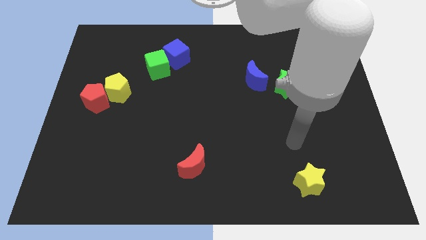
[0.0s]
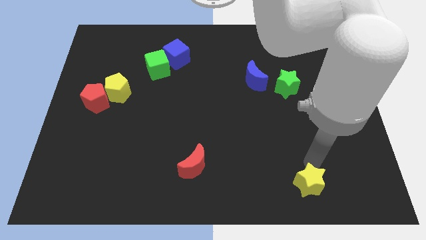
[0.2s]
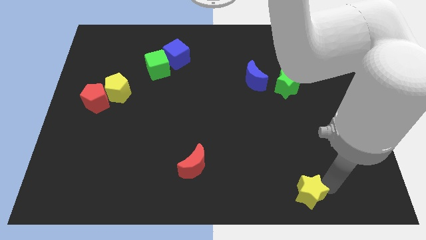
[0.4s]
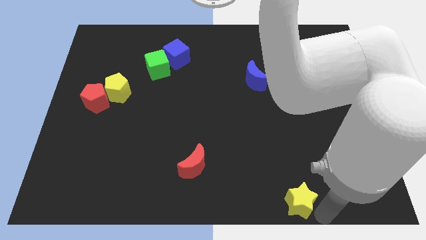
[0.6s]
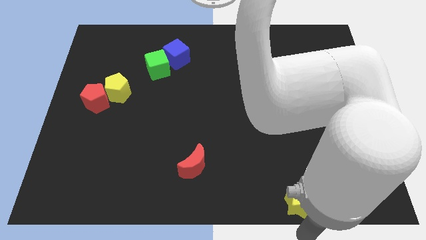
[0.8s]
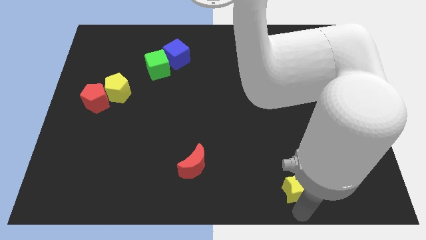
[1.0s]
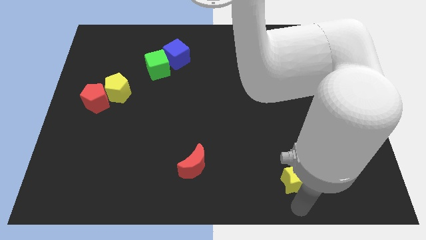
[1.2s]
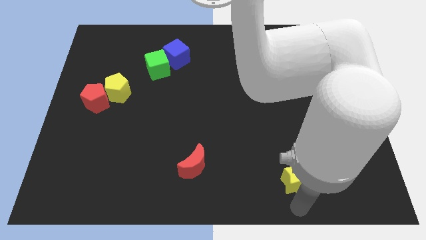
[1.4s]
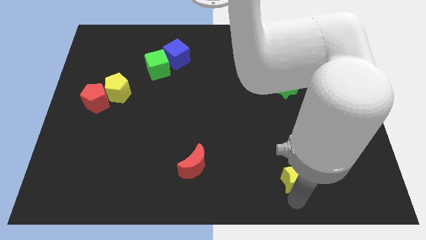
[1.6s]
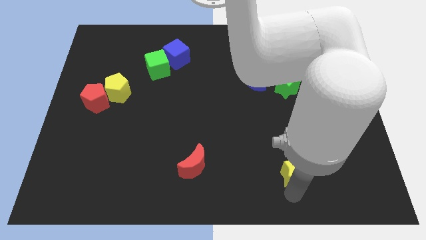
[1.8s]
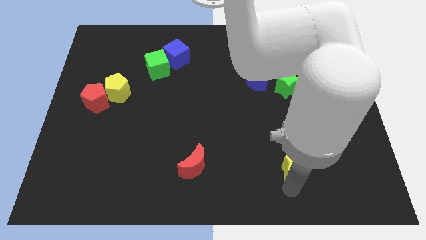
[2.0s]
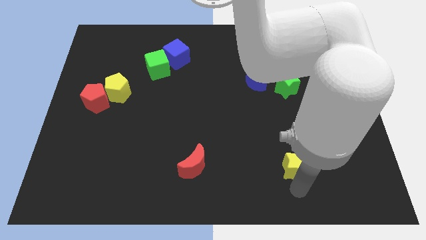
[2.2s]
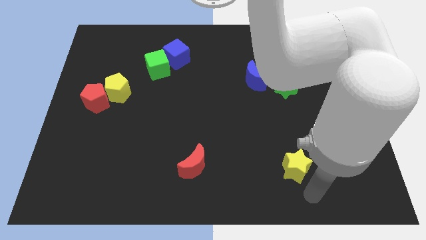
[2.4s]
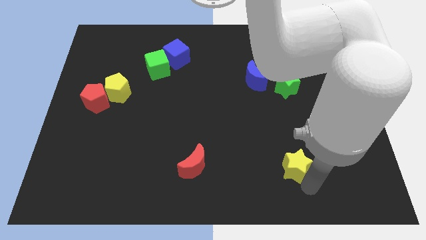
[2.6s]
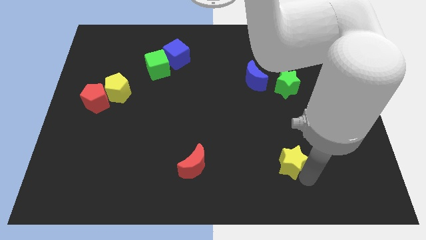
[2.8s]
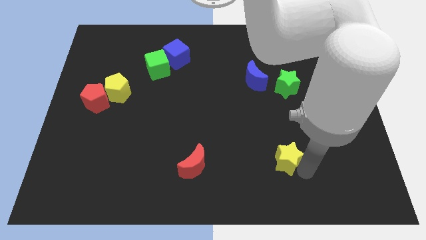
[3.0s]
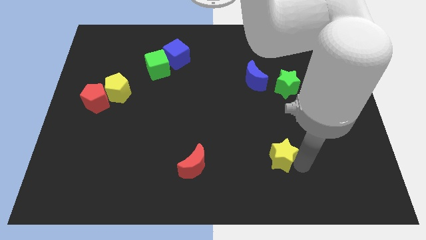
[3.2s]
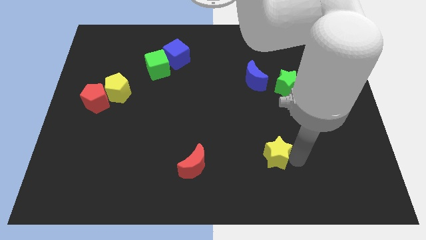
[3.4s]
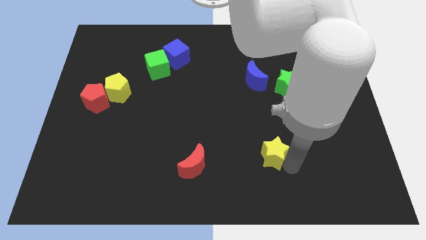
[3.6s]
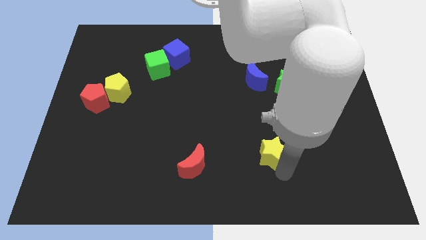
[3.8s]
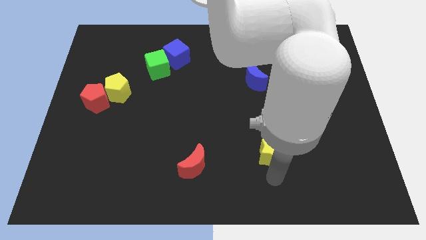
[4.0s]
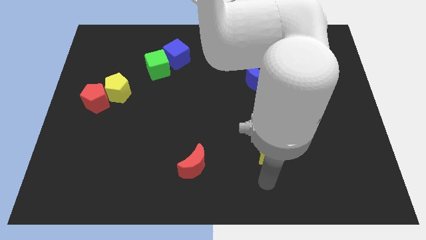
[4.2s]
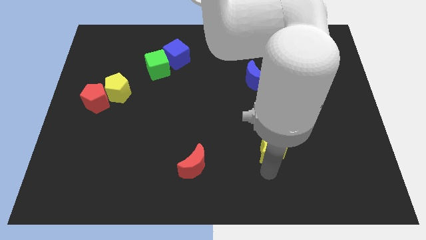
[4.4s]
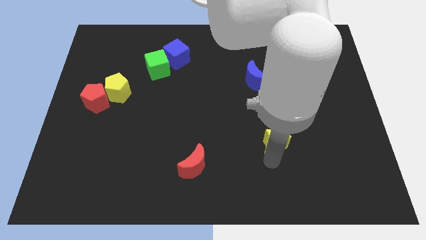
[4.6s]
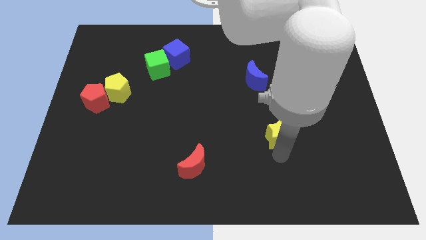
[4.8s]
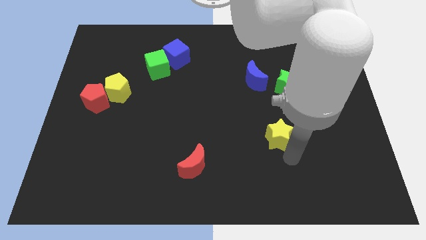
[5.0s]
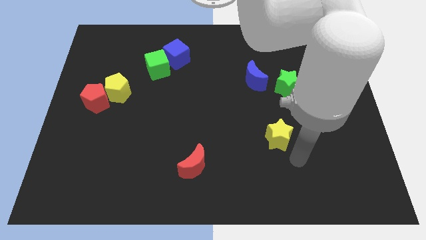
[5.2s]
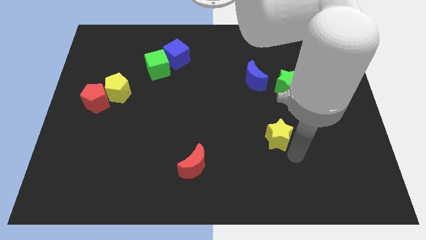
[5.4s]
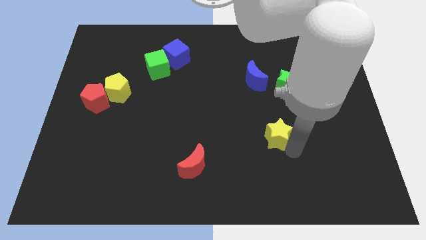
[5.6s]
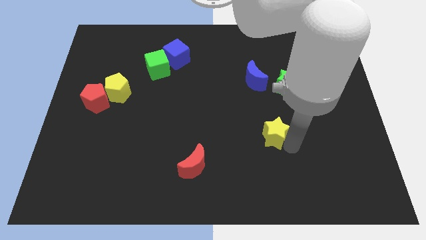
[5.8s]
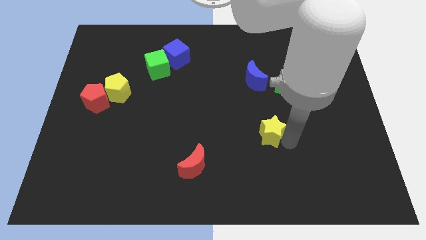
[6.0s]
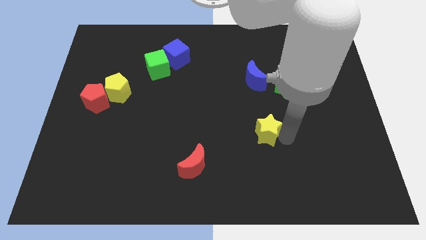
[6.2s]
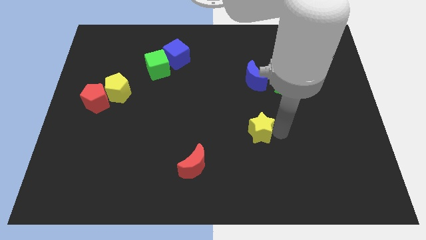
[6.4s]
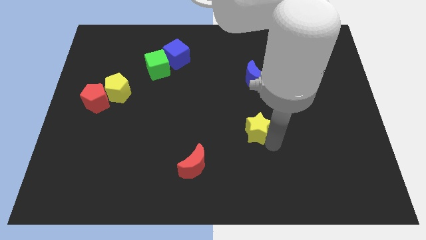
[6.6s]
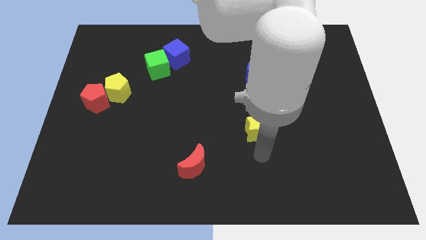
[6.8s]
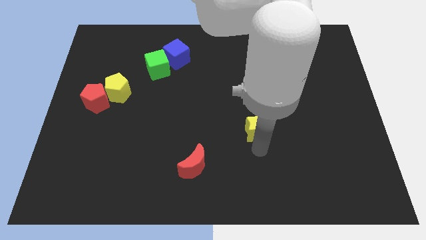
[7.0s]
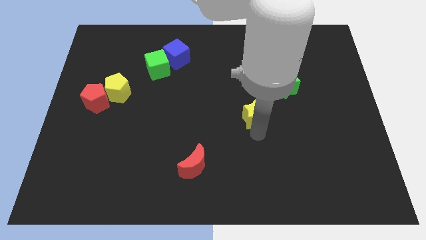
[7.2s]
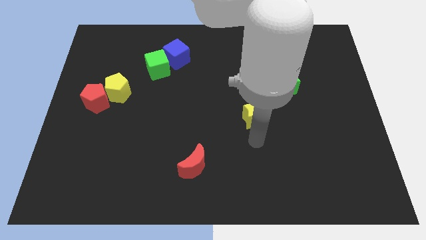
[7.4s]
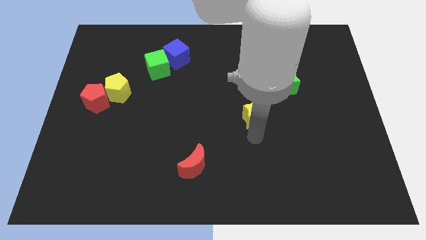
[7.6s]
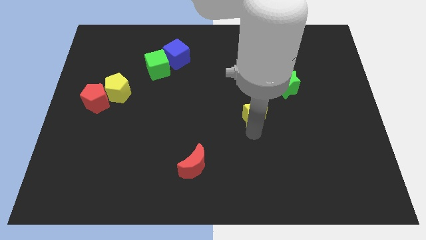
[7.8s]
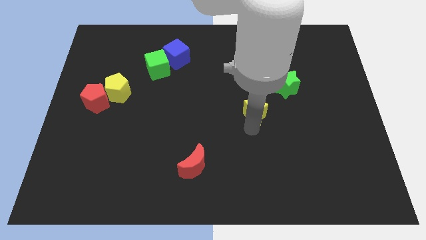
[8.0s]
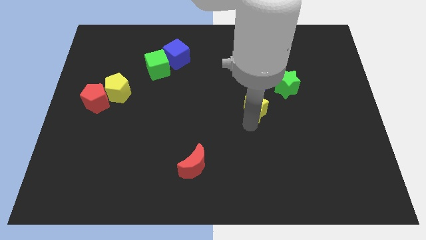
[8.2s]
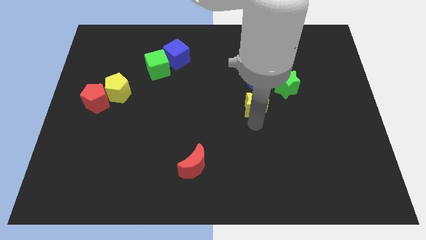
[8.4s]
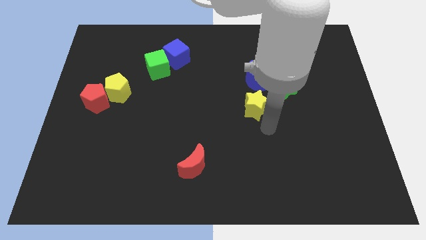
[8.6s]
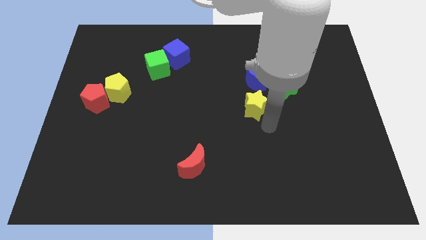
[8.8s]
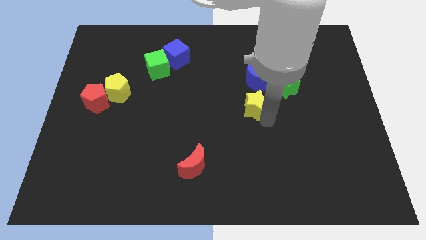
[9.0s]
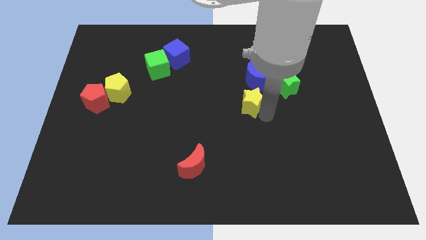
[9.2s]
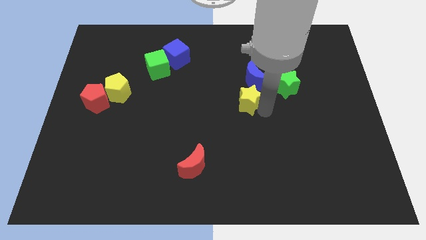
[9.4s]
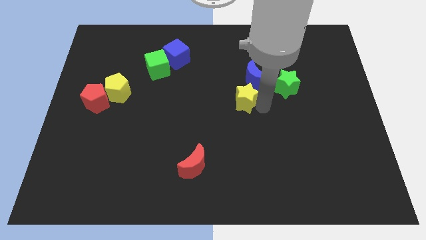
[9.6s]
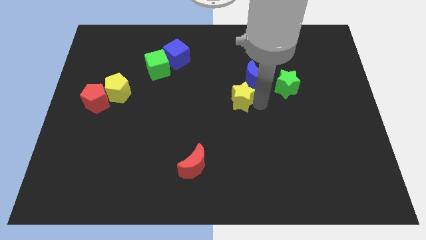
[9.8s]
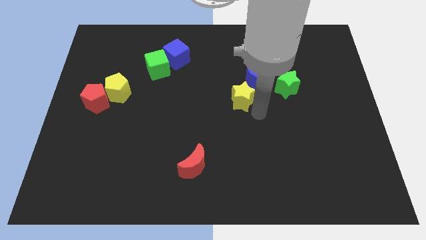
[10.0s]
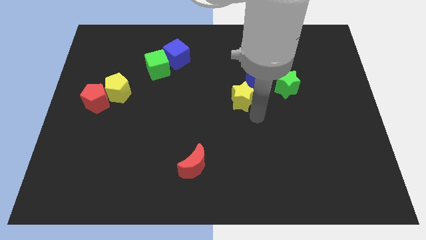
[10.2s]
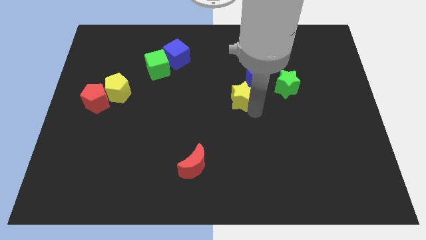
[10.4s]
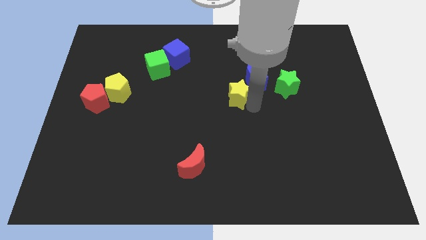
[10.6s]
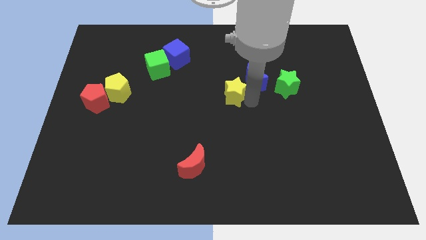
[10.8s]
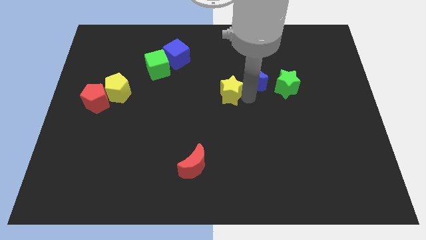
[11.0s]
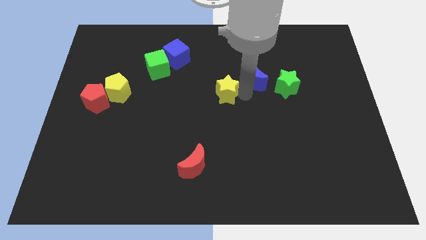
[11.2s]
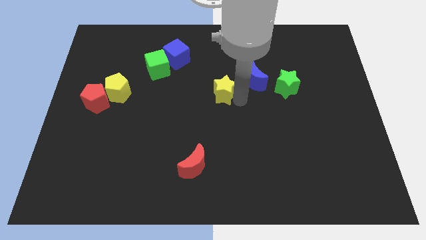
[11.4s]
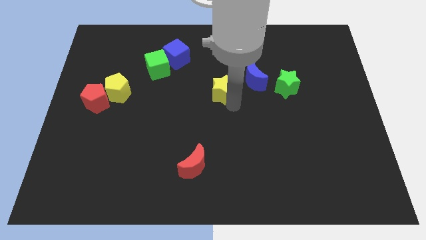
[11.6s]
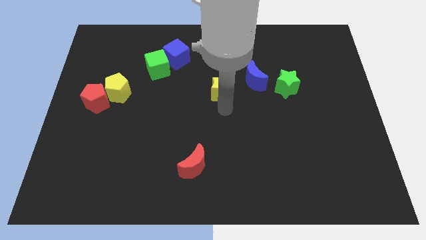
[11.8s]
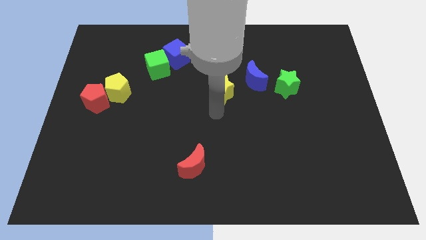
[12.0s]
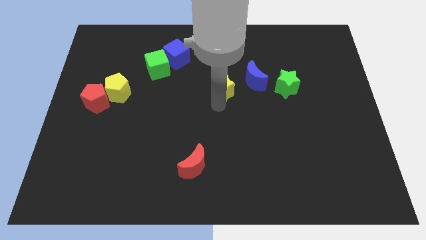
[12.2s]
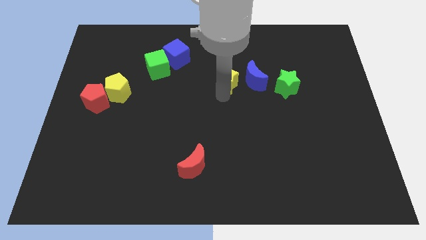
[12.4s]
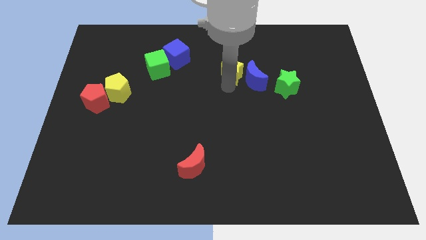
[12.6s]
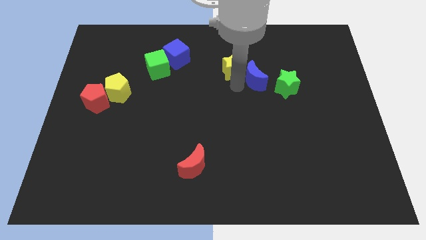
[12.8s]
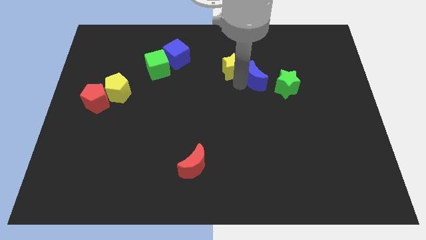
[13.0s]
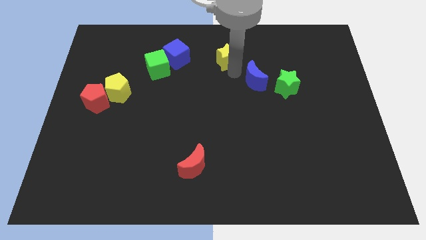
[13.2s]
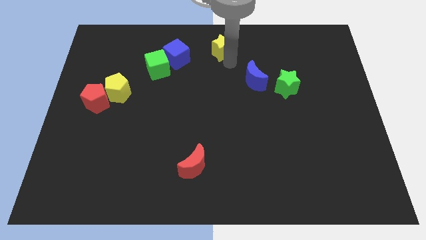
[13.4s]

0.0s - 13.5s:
slide the yellow star to the top side
